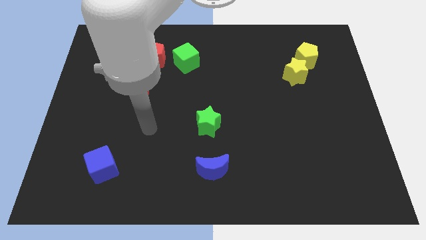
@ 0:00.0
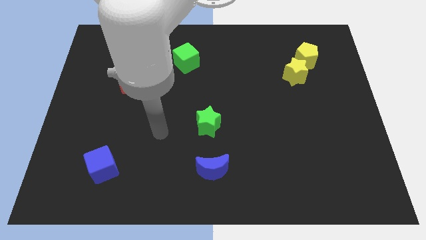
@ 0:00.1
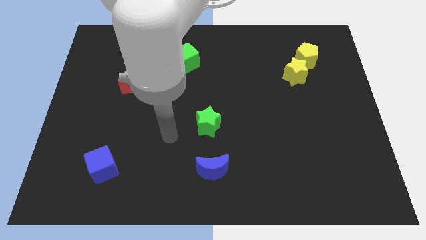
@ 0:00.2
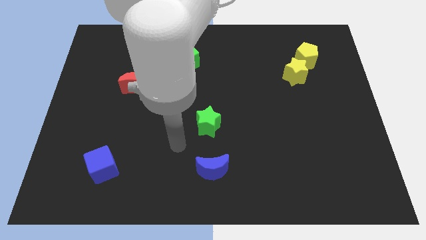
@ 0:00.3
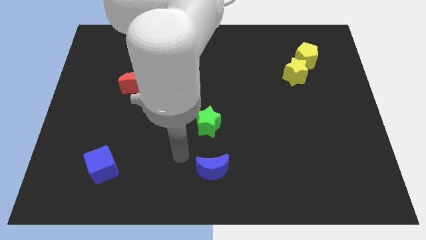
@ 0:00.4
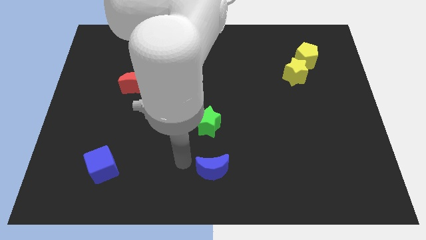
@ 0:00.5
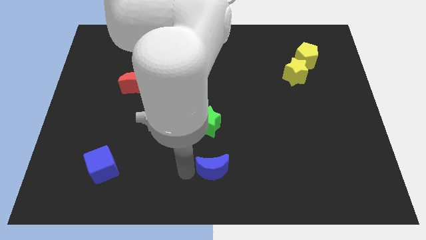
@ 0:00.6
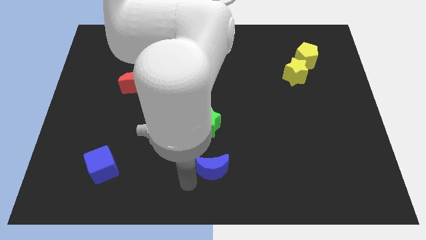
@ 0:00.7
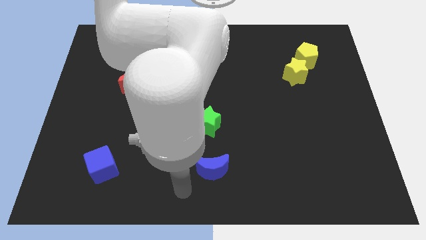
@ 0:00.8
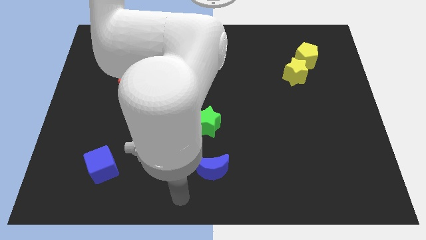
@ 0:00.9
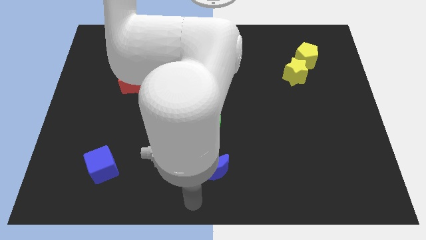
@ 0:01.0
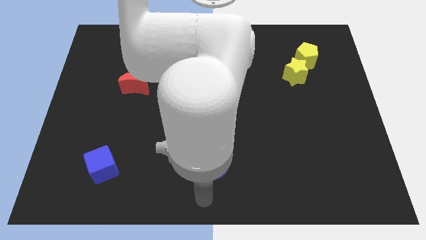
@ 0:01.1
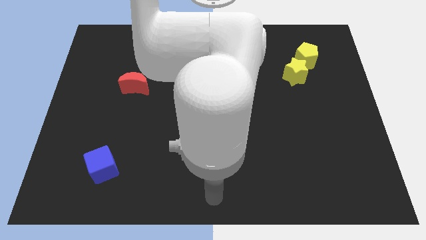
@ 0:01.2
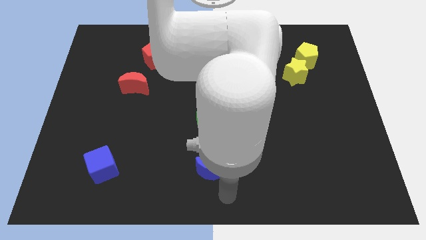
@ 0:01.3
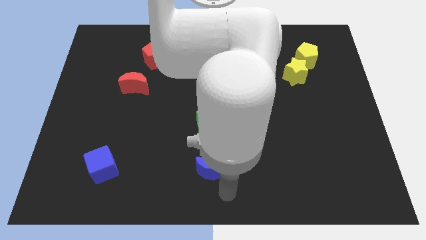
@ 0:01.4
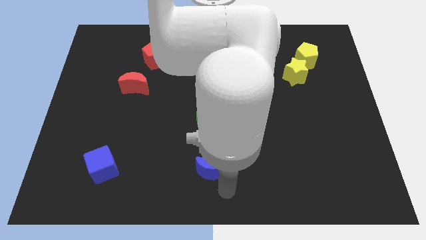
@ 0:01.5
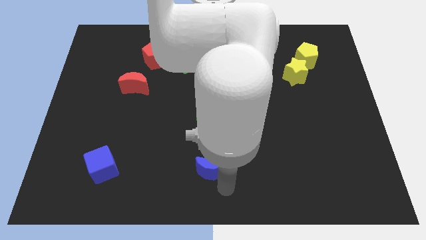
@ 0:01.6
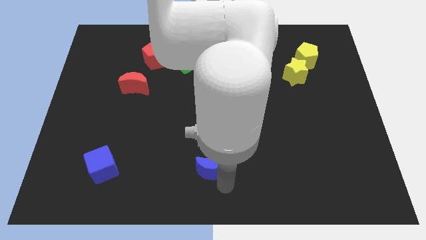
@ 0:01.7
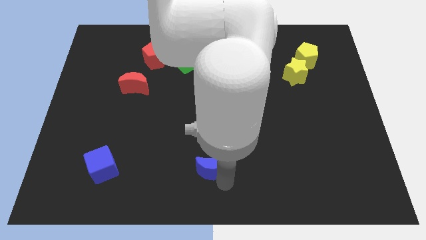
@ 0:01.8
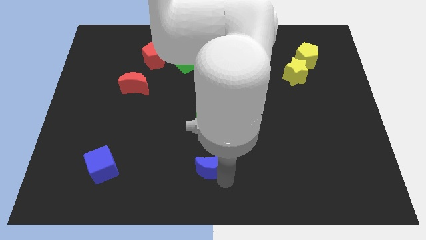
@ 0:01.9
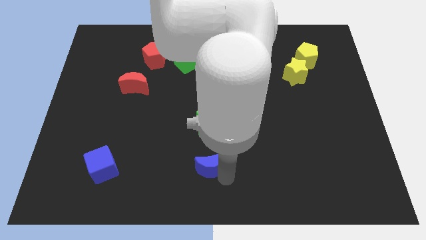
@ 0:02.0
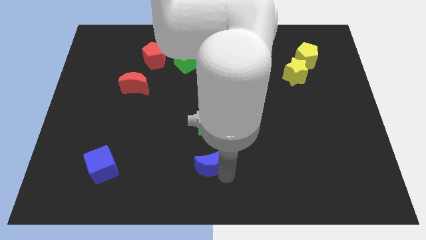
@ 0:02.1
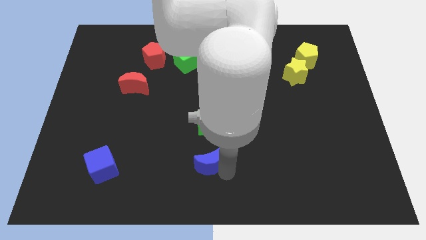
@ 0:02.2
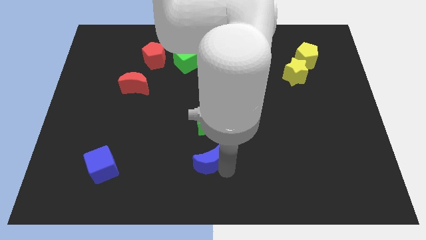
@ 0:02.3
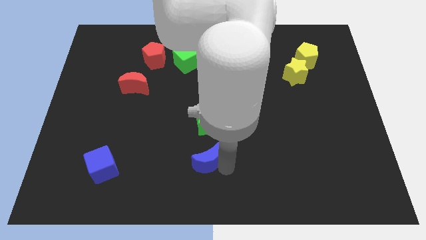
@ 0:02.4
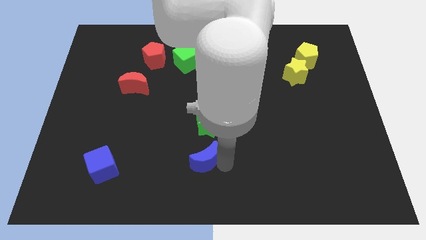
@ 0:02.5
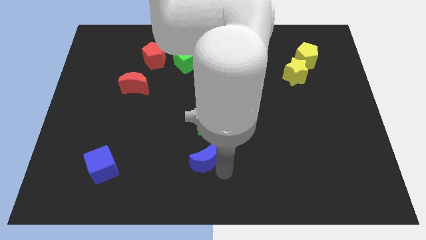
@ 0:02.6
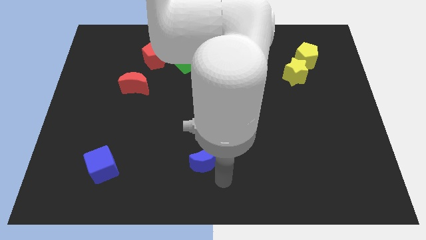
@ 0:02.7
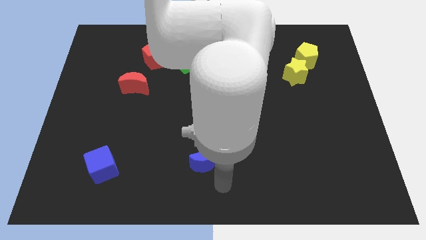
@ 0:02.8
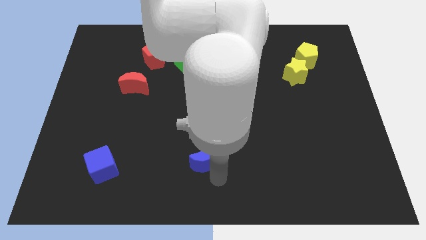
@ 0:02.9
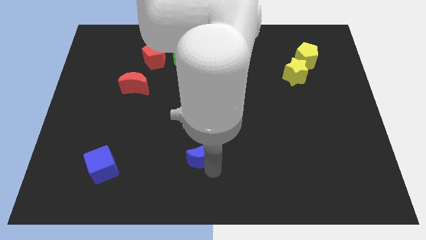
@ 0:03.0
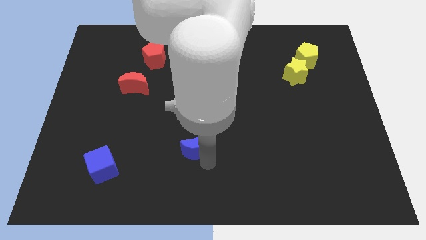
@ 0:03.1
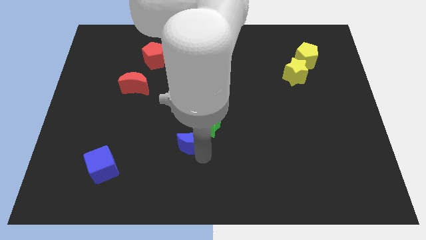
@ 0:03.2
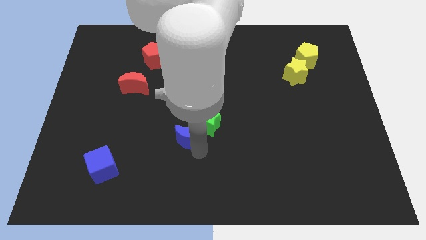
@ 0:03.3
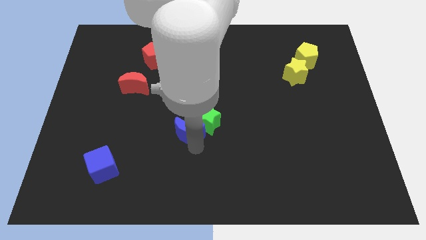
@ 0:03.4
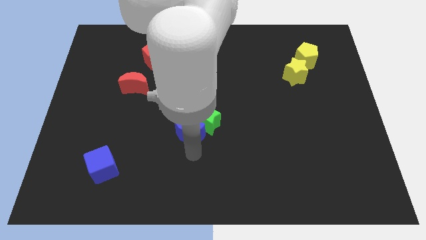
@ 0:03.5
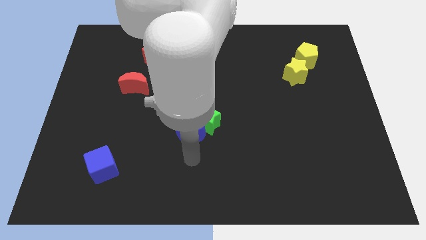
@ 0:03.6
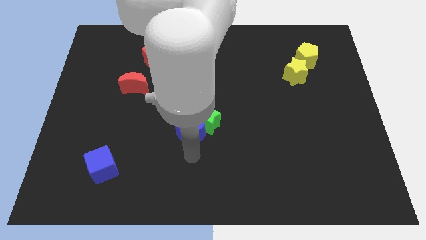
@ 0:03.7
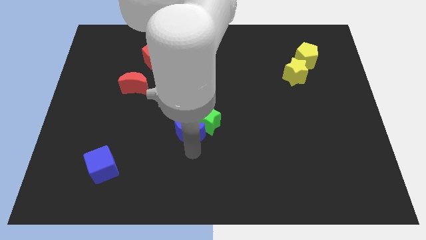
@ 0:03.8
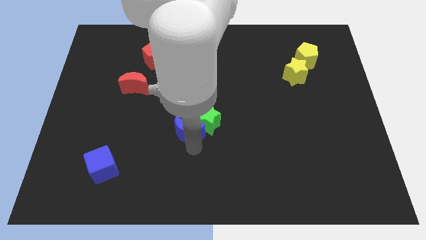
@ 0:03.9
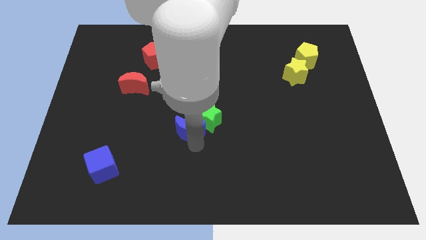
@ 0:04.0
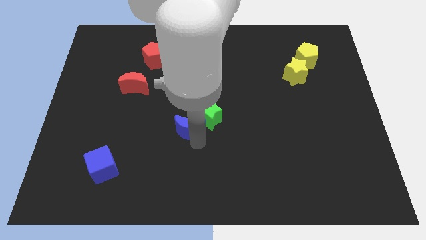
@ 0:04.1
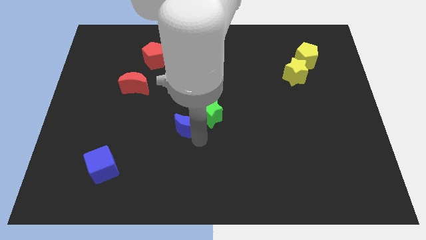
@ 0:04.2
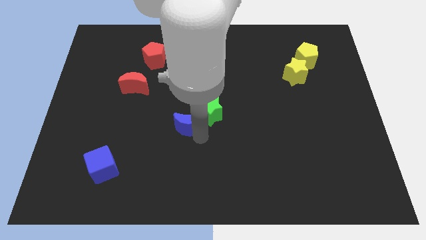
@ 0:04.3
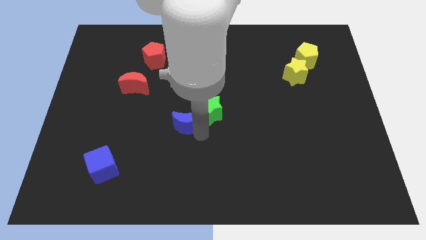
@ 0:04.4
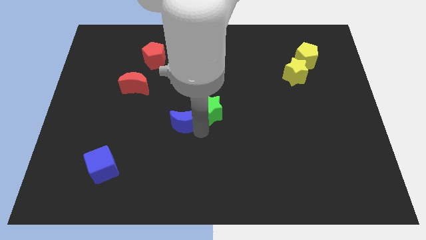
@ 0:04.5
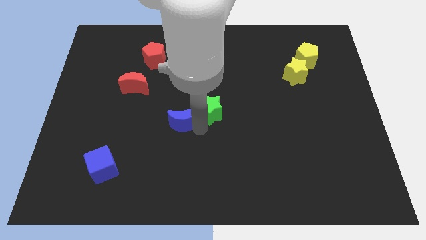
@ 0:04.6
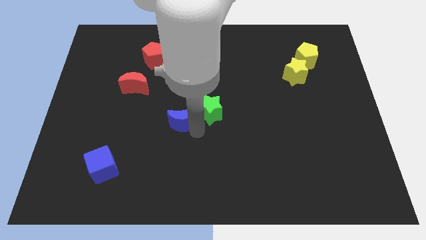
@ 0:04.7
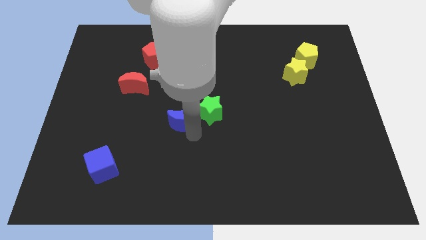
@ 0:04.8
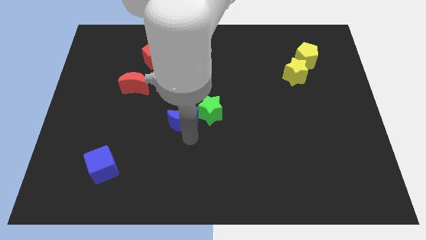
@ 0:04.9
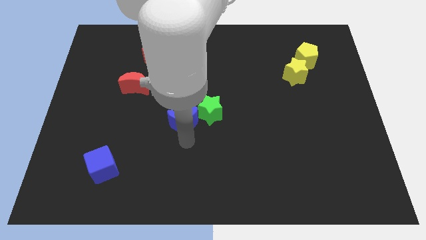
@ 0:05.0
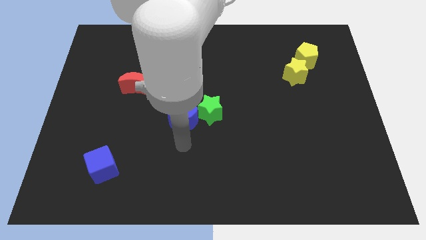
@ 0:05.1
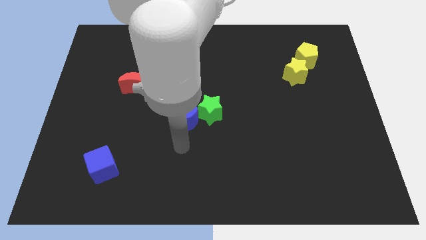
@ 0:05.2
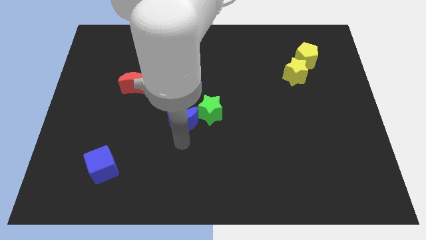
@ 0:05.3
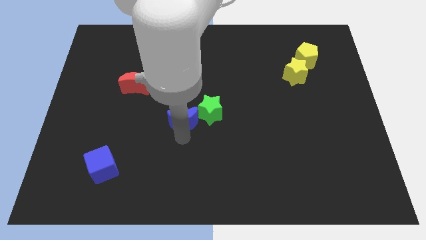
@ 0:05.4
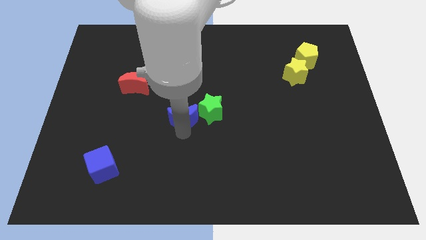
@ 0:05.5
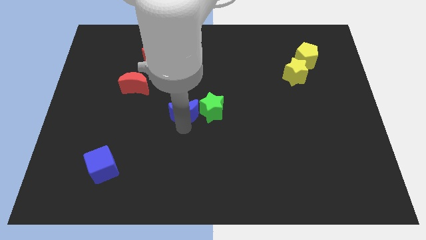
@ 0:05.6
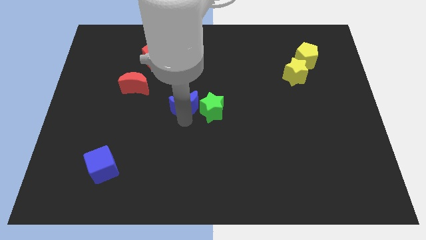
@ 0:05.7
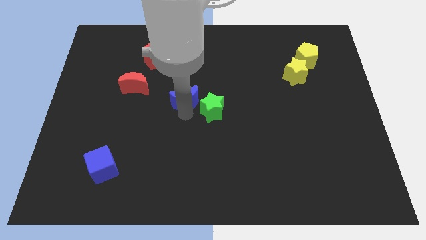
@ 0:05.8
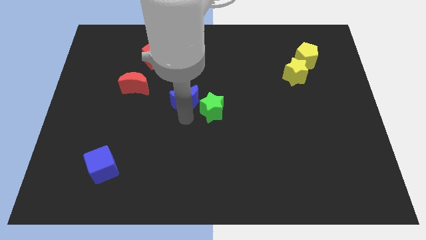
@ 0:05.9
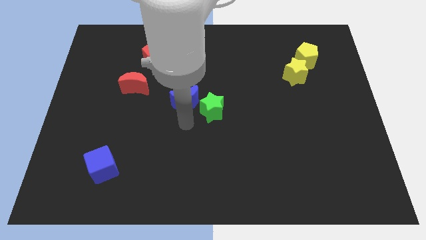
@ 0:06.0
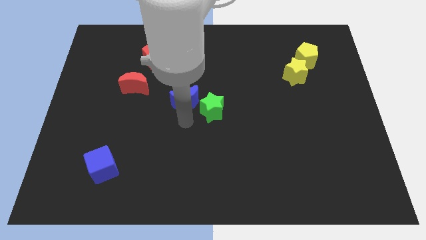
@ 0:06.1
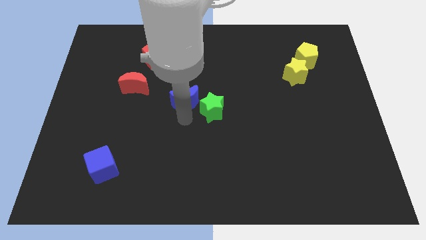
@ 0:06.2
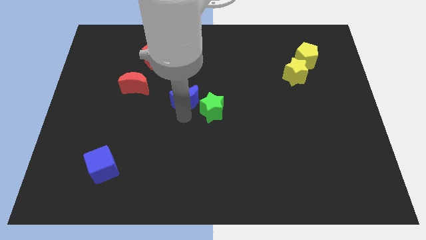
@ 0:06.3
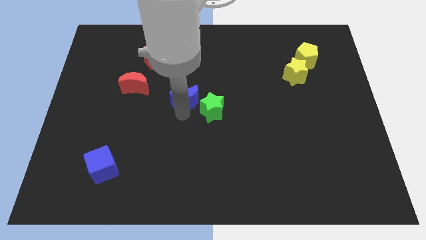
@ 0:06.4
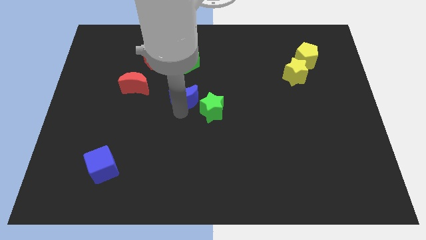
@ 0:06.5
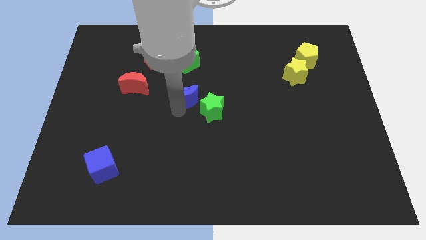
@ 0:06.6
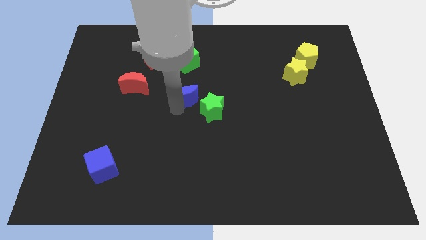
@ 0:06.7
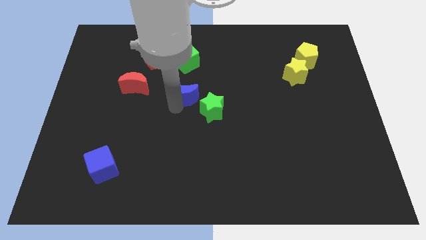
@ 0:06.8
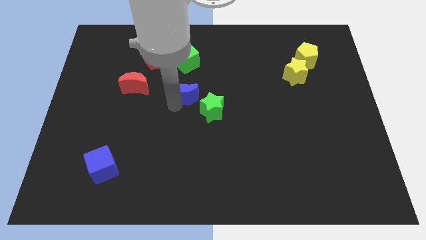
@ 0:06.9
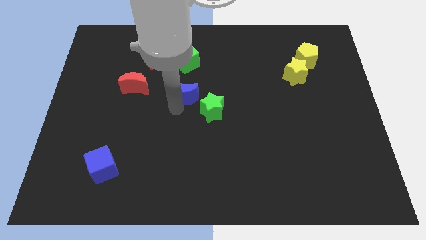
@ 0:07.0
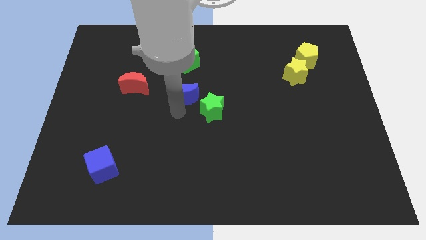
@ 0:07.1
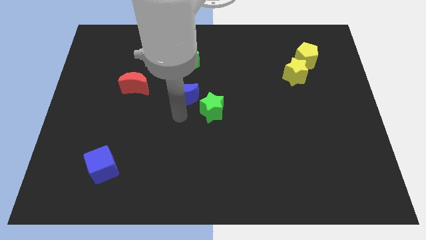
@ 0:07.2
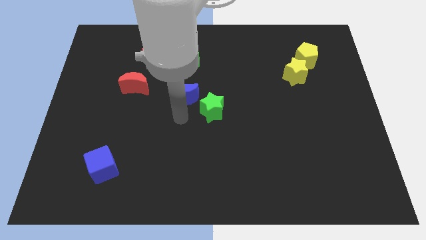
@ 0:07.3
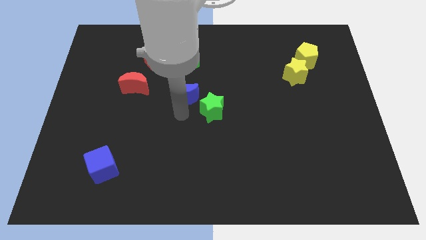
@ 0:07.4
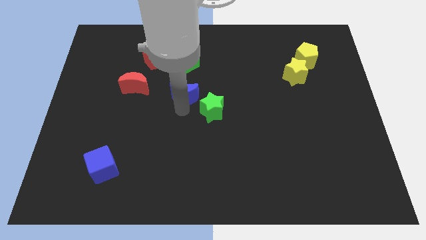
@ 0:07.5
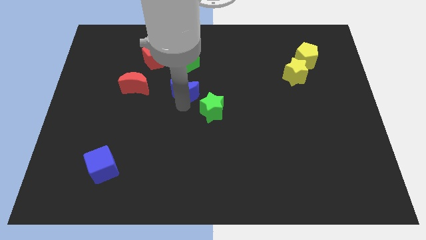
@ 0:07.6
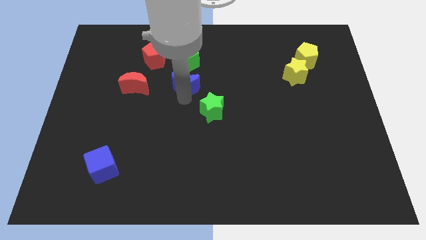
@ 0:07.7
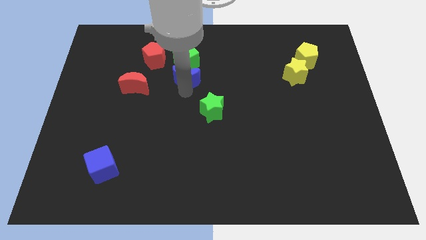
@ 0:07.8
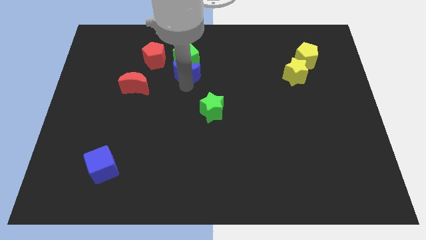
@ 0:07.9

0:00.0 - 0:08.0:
put the blue moon towards the green cube
